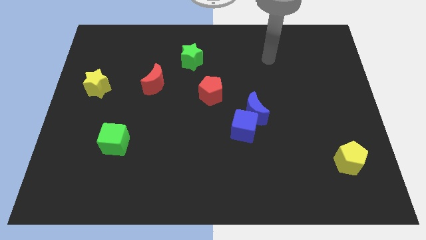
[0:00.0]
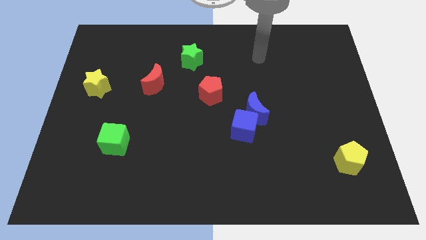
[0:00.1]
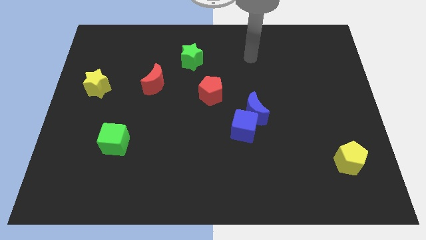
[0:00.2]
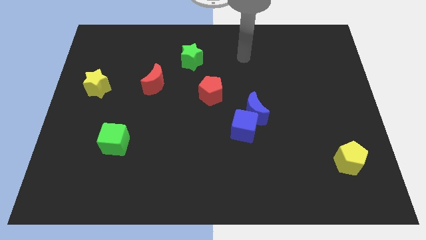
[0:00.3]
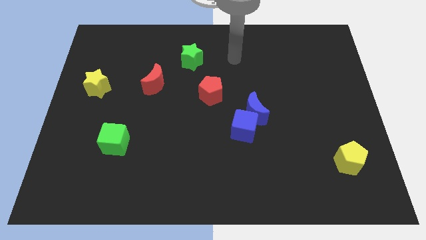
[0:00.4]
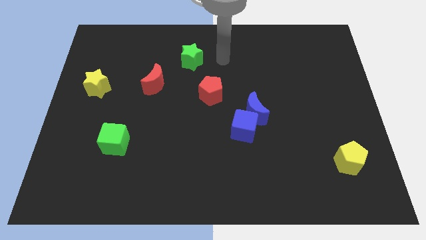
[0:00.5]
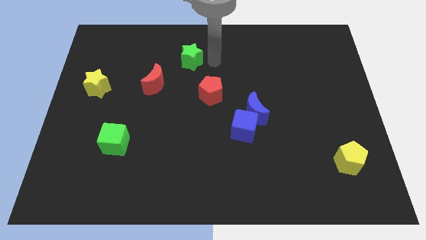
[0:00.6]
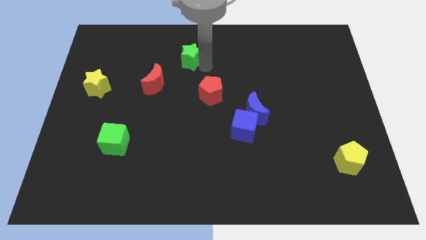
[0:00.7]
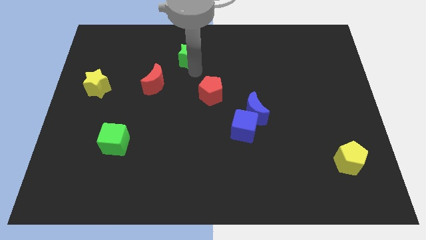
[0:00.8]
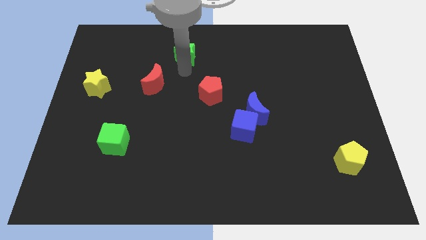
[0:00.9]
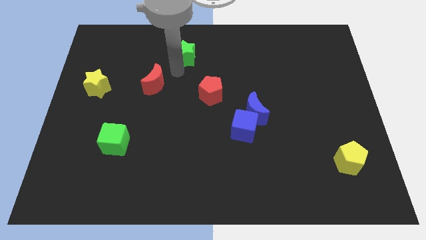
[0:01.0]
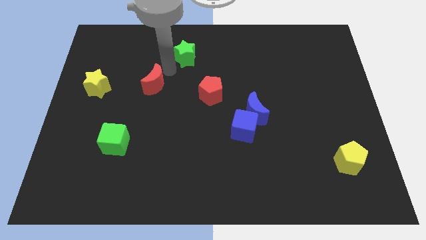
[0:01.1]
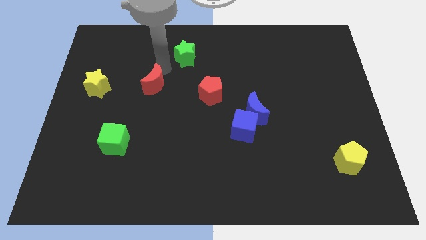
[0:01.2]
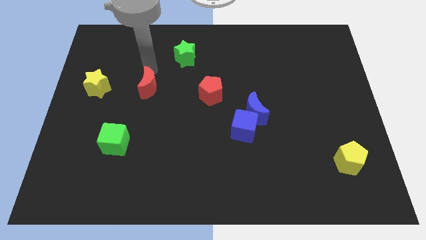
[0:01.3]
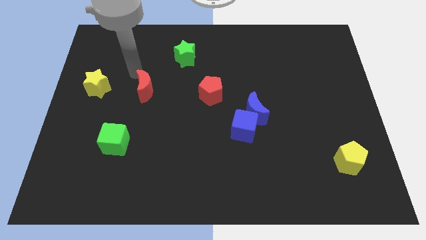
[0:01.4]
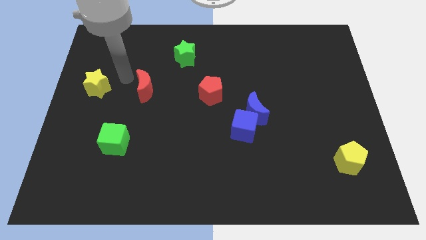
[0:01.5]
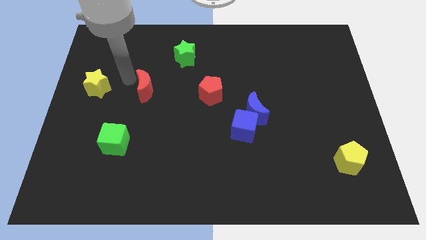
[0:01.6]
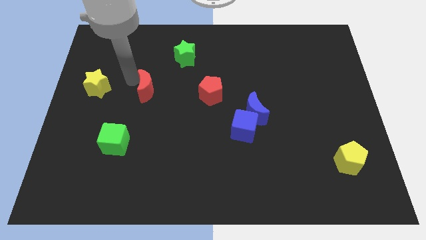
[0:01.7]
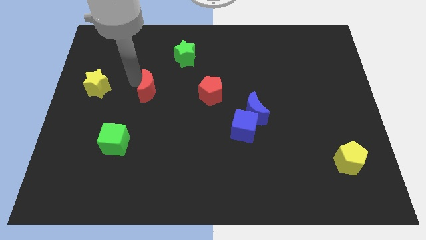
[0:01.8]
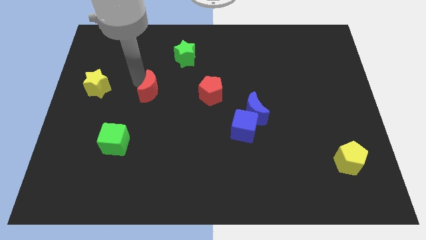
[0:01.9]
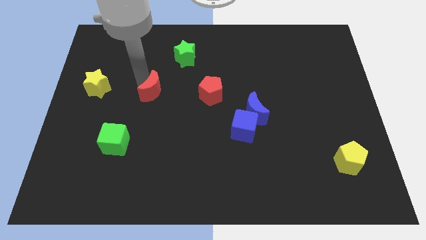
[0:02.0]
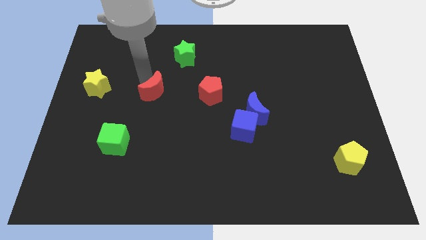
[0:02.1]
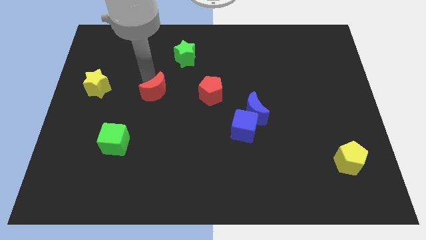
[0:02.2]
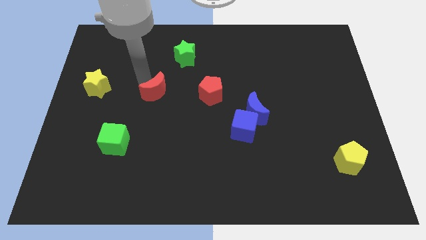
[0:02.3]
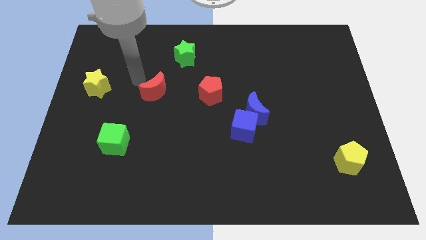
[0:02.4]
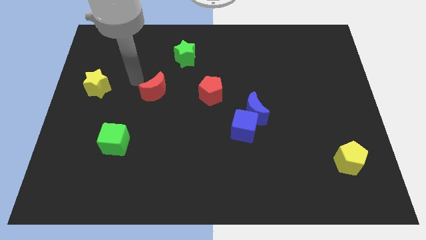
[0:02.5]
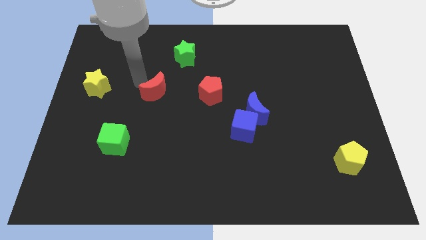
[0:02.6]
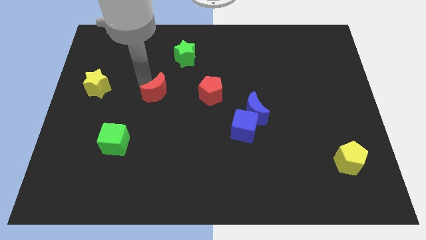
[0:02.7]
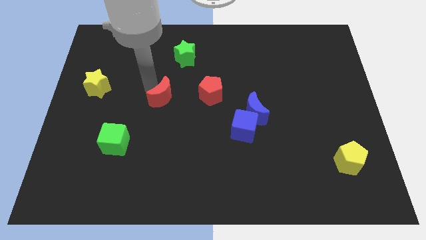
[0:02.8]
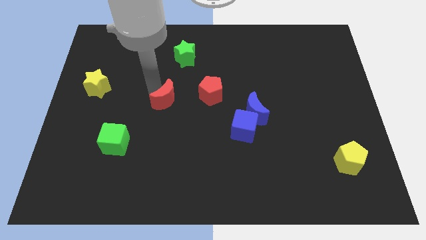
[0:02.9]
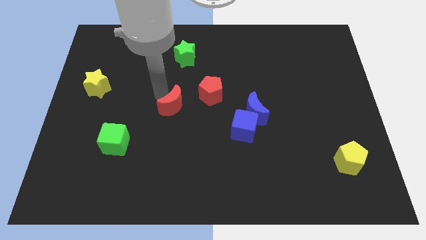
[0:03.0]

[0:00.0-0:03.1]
move the red moon a little bit diagonally downwards and to the right

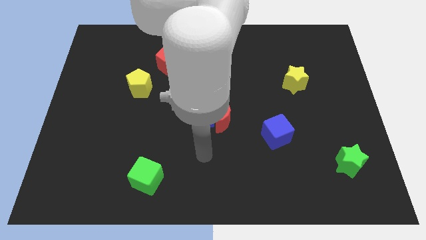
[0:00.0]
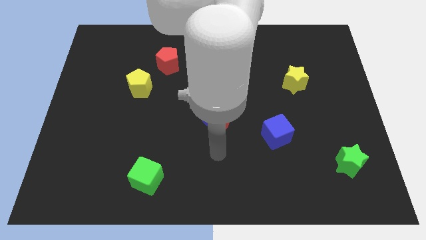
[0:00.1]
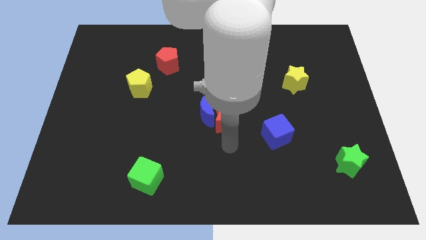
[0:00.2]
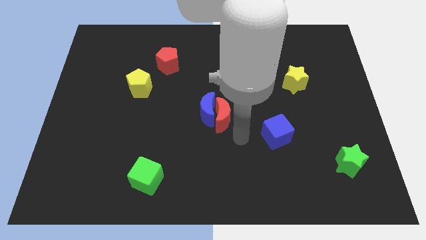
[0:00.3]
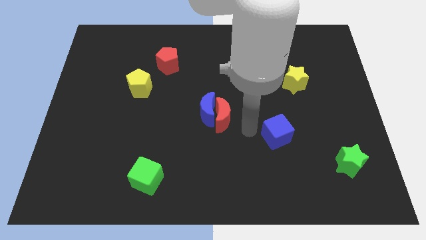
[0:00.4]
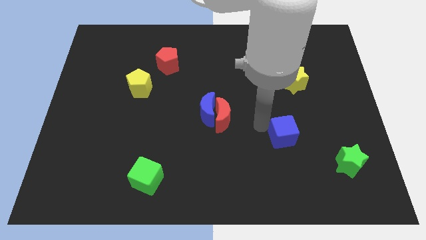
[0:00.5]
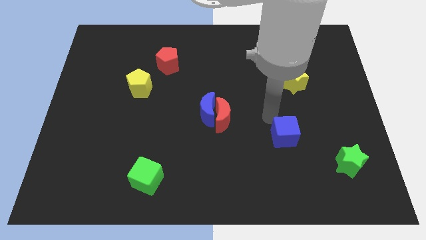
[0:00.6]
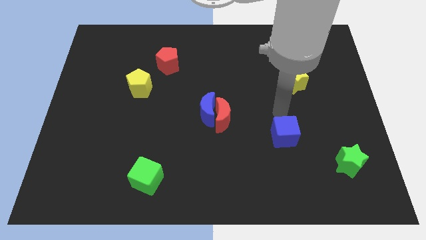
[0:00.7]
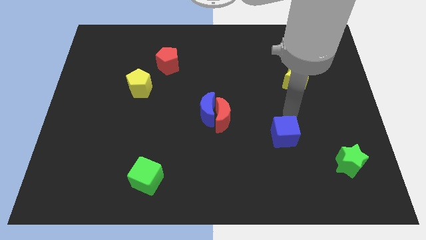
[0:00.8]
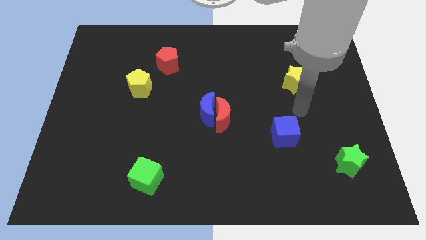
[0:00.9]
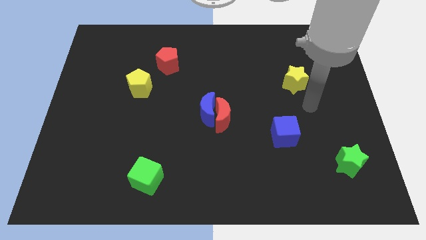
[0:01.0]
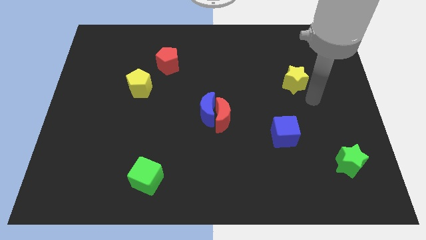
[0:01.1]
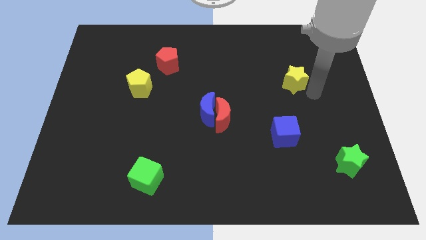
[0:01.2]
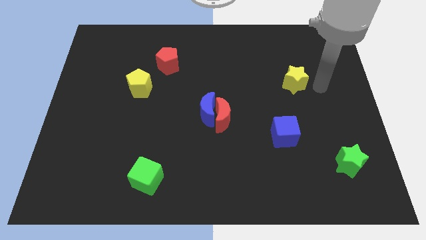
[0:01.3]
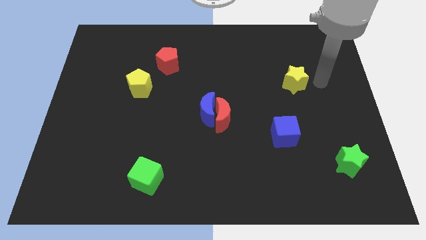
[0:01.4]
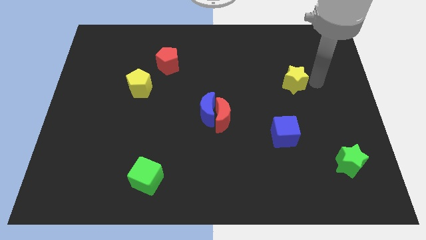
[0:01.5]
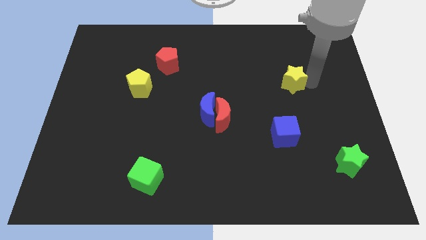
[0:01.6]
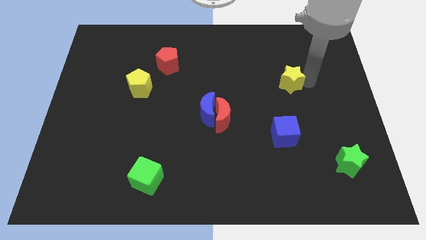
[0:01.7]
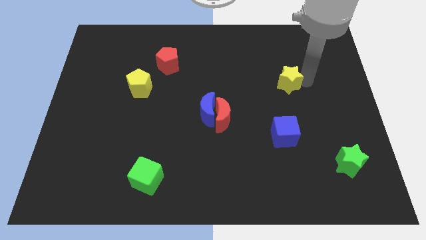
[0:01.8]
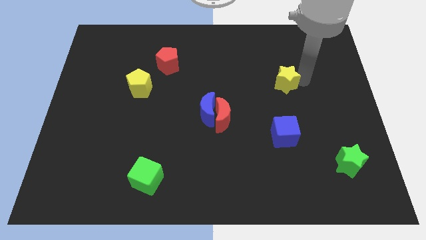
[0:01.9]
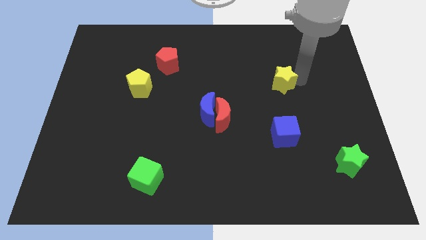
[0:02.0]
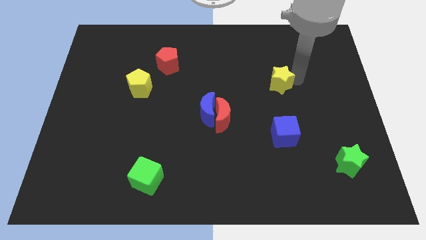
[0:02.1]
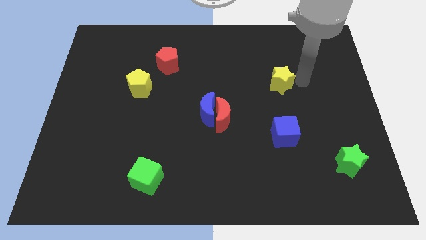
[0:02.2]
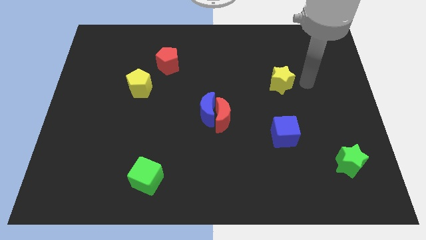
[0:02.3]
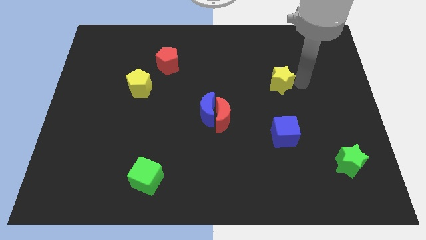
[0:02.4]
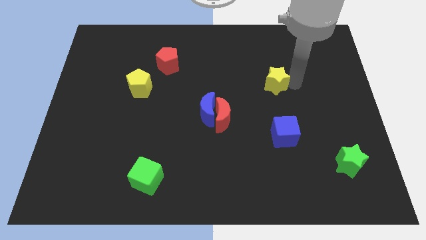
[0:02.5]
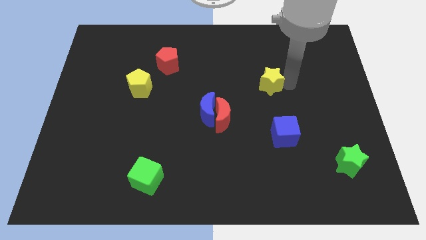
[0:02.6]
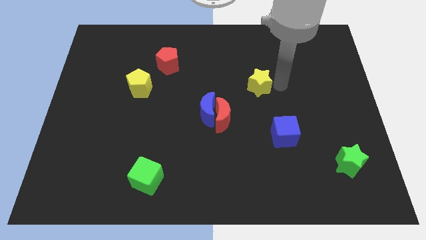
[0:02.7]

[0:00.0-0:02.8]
push the yellow star a little left

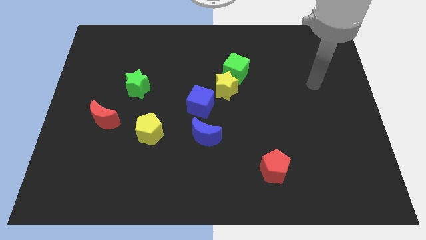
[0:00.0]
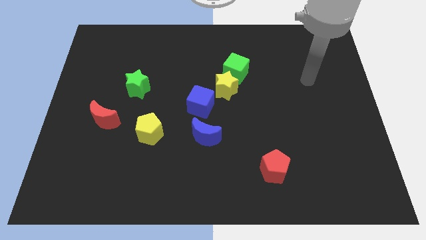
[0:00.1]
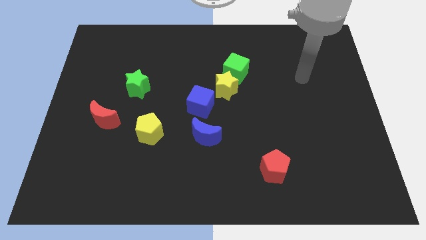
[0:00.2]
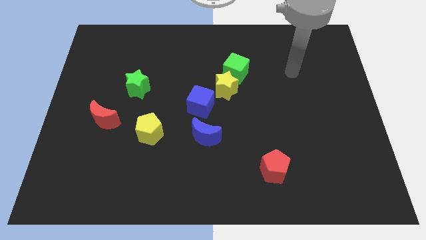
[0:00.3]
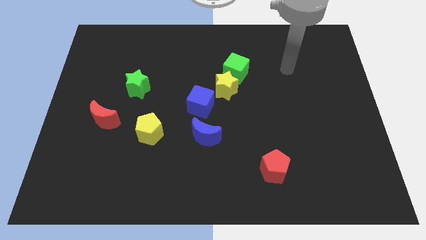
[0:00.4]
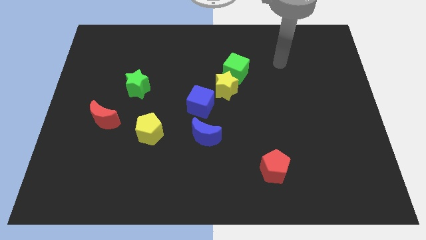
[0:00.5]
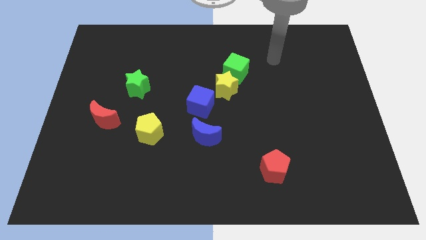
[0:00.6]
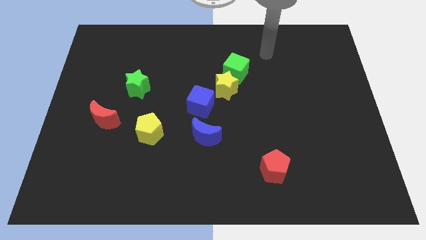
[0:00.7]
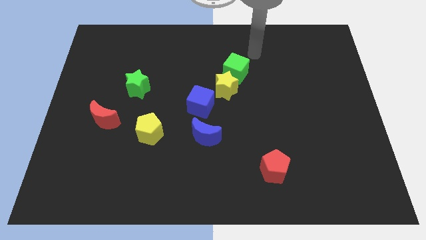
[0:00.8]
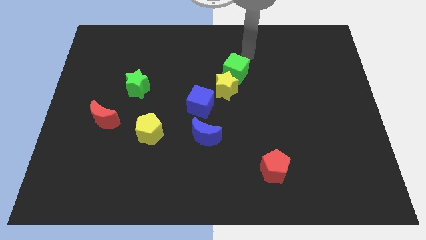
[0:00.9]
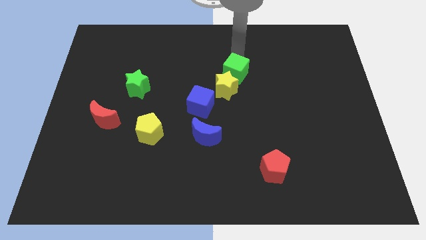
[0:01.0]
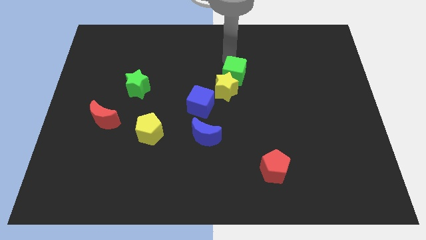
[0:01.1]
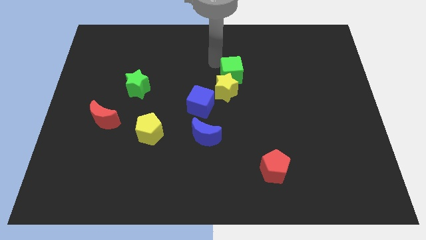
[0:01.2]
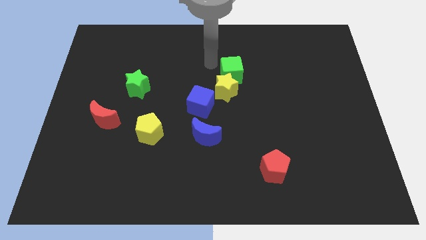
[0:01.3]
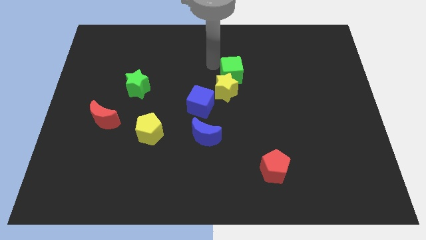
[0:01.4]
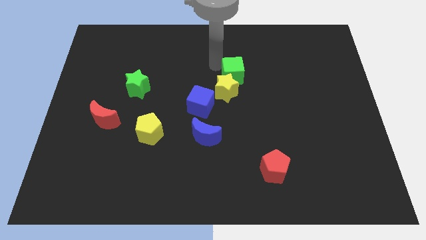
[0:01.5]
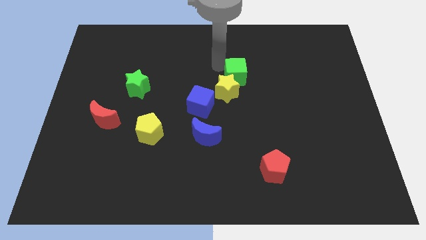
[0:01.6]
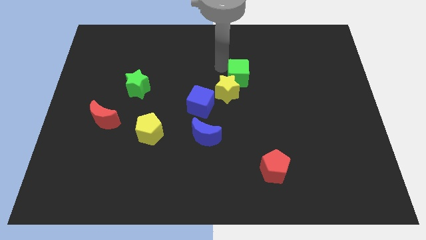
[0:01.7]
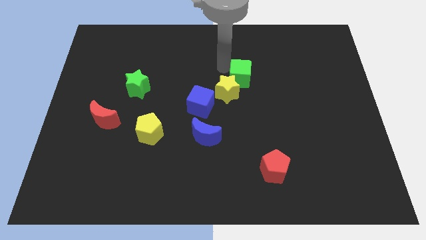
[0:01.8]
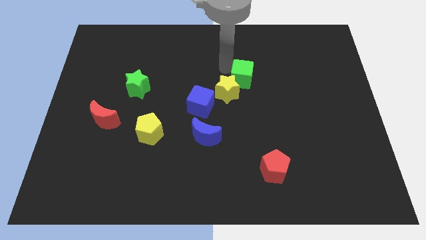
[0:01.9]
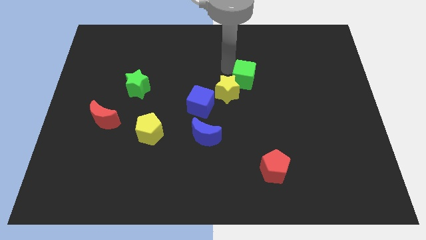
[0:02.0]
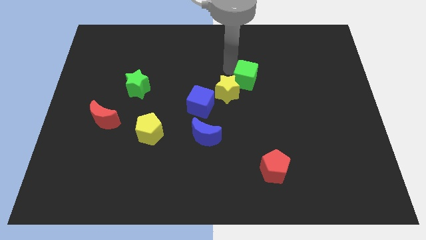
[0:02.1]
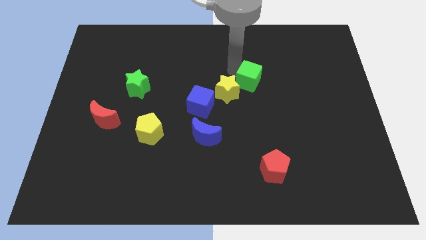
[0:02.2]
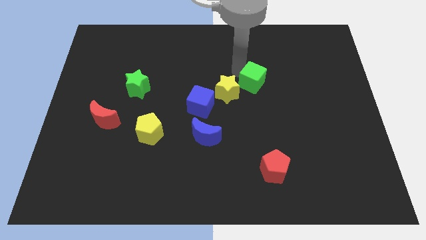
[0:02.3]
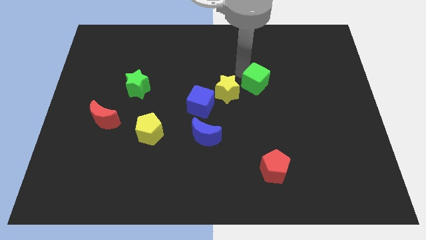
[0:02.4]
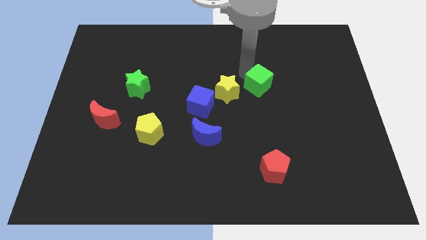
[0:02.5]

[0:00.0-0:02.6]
move the green cube slightly down and right diagonally
